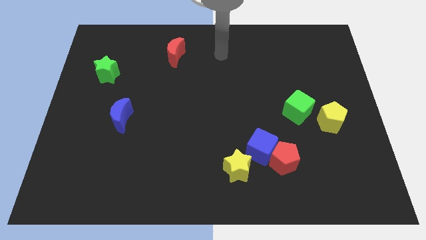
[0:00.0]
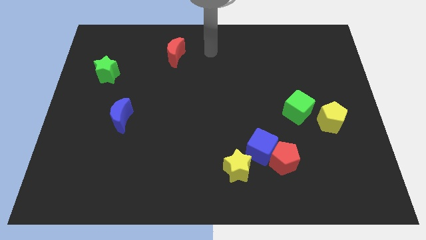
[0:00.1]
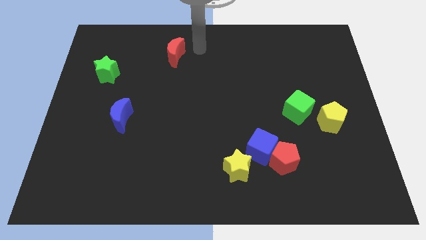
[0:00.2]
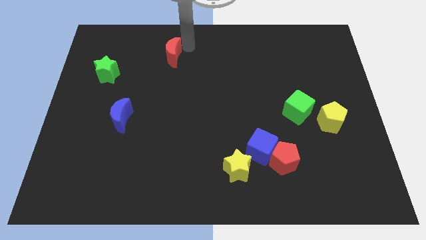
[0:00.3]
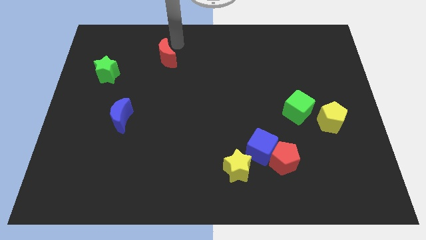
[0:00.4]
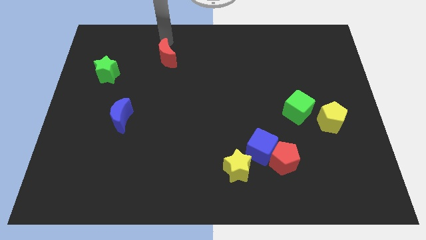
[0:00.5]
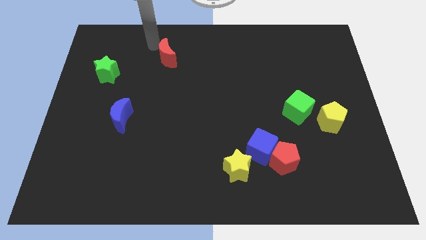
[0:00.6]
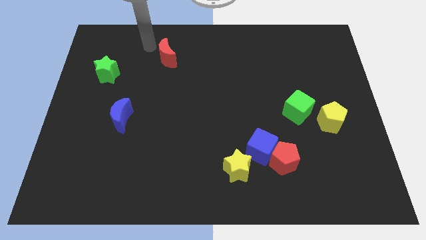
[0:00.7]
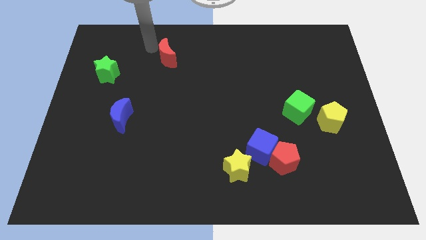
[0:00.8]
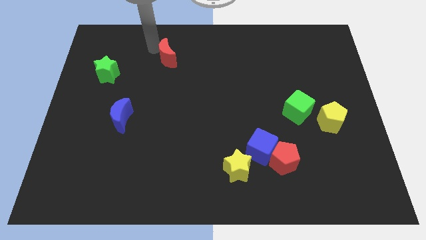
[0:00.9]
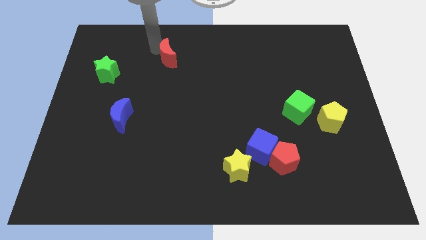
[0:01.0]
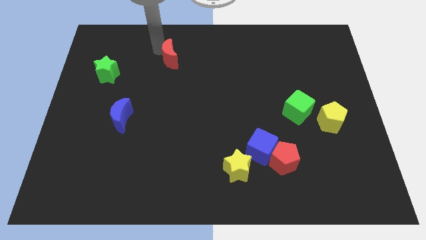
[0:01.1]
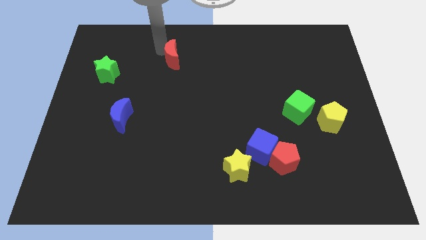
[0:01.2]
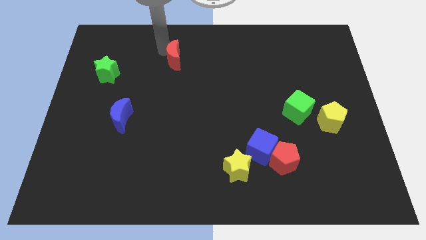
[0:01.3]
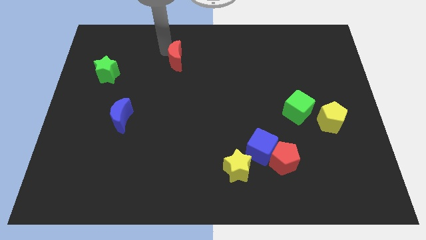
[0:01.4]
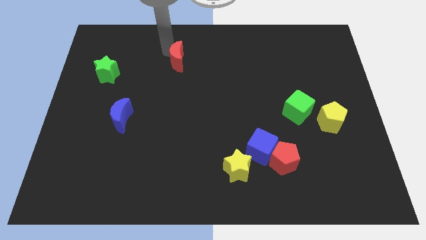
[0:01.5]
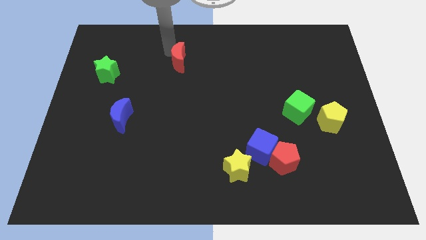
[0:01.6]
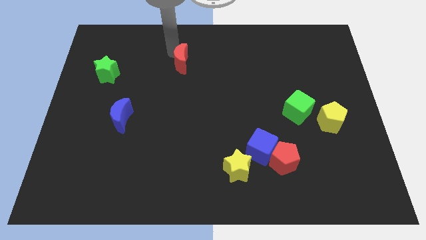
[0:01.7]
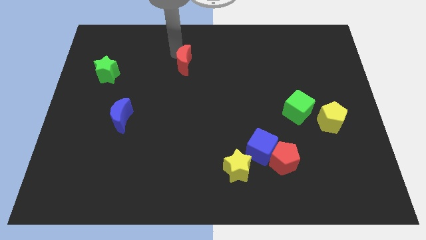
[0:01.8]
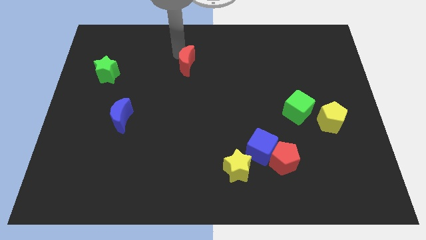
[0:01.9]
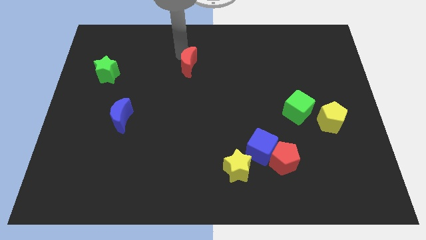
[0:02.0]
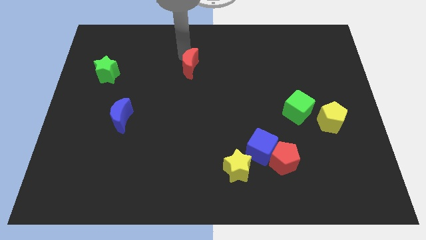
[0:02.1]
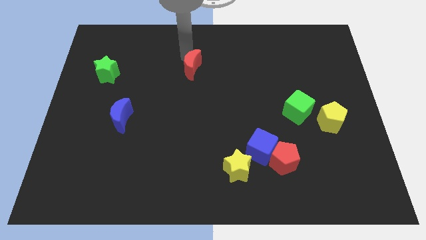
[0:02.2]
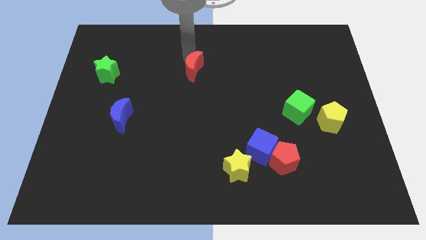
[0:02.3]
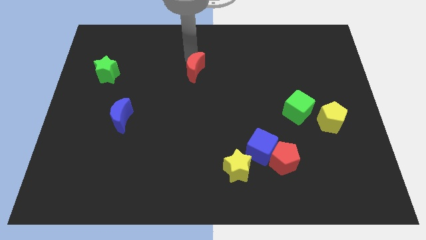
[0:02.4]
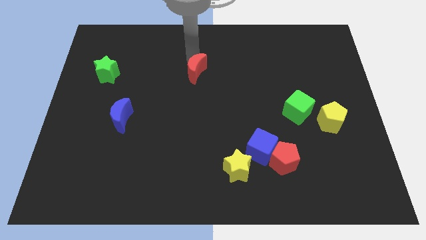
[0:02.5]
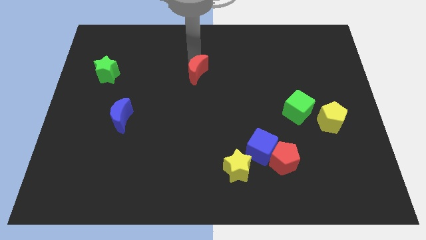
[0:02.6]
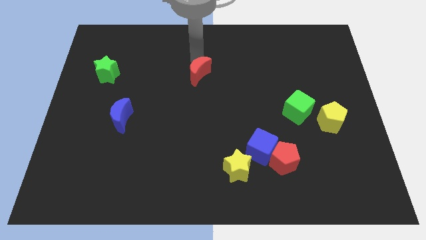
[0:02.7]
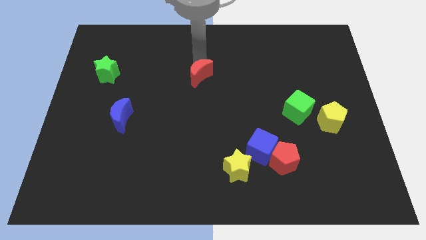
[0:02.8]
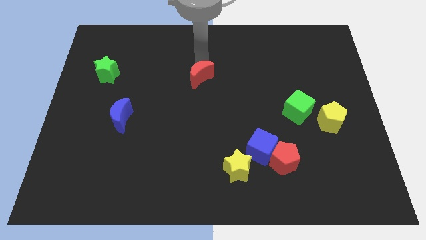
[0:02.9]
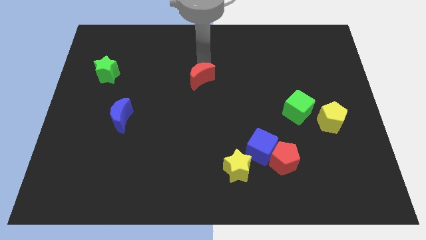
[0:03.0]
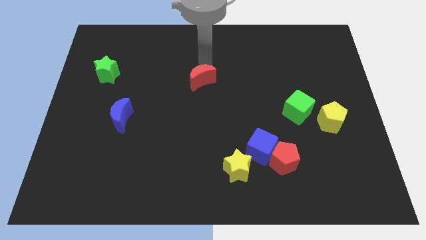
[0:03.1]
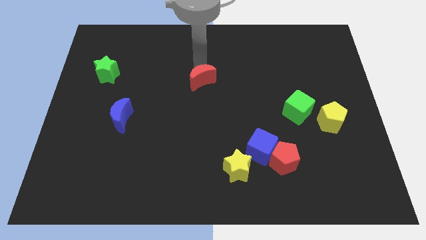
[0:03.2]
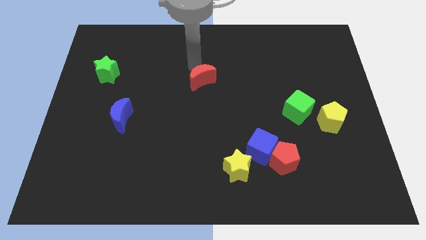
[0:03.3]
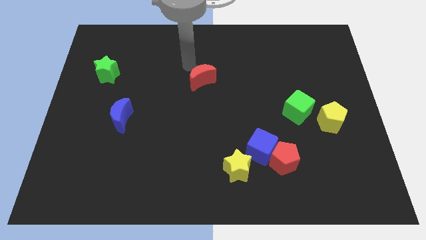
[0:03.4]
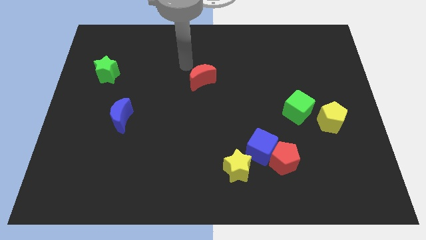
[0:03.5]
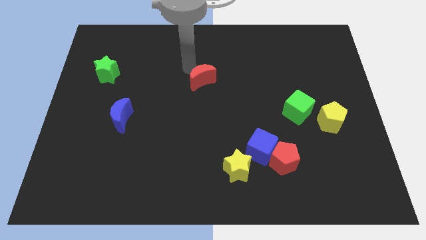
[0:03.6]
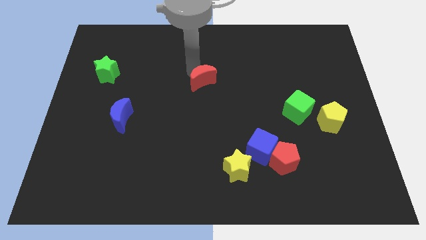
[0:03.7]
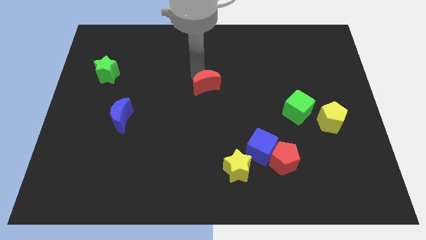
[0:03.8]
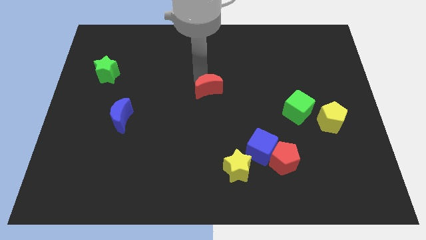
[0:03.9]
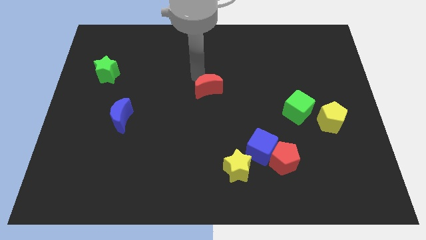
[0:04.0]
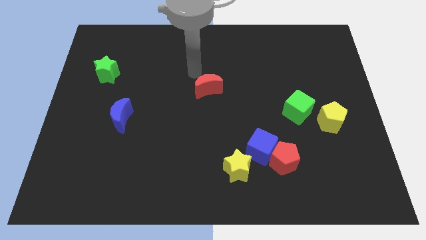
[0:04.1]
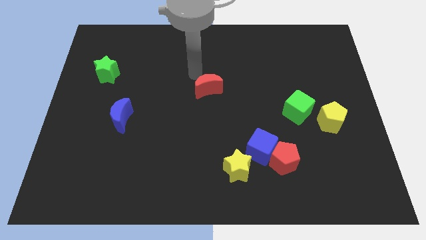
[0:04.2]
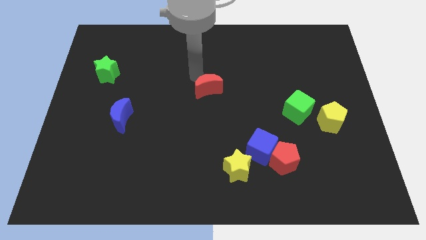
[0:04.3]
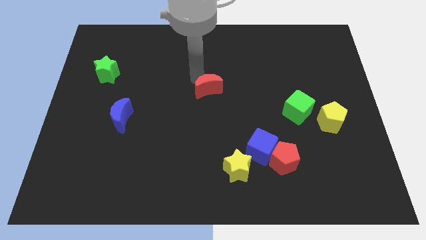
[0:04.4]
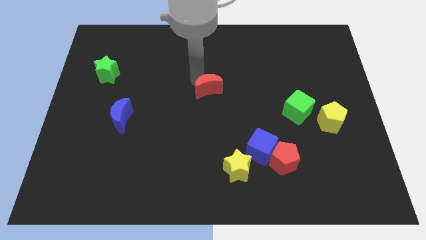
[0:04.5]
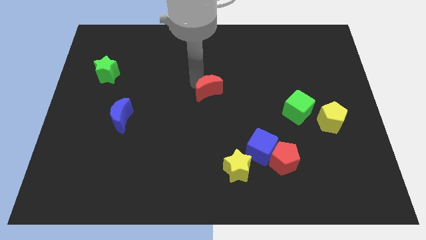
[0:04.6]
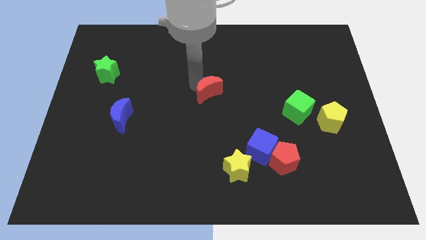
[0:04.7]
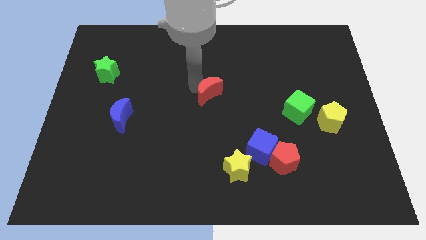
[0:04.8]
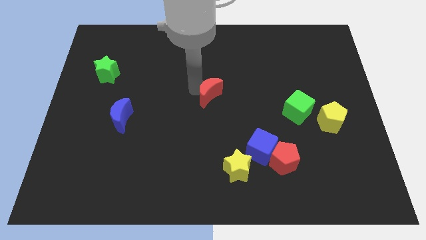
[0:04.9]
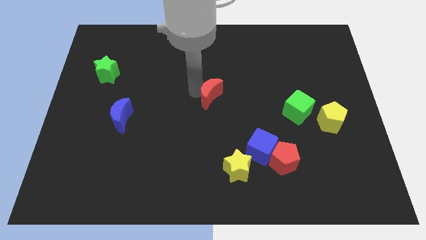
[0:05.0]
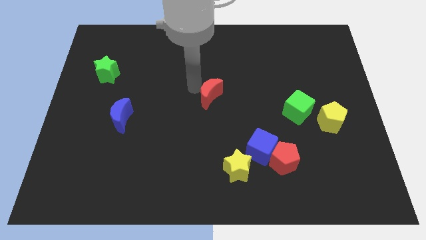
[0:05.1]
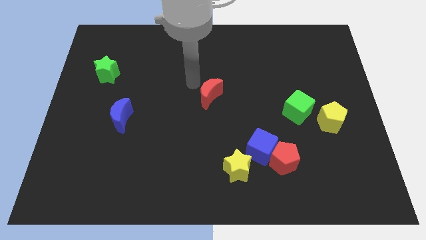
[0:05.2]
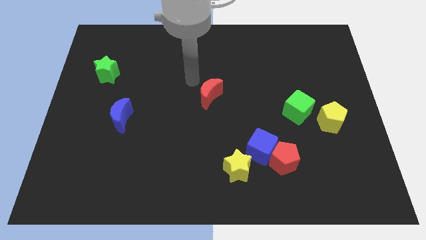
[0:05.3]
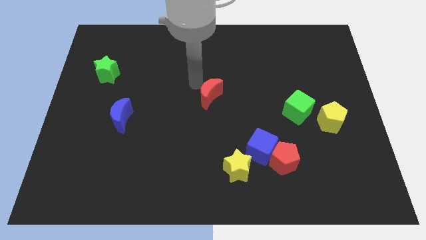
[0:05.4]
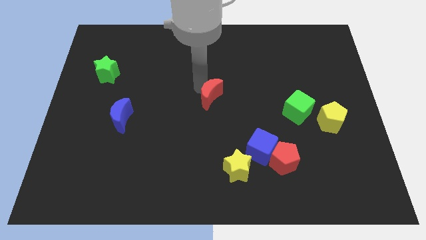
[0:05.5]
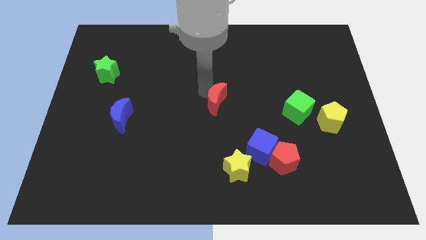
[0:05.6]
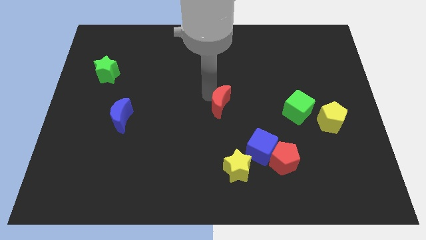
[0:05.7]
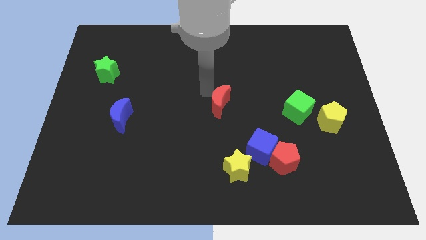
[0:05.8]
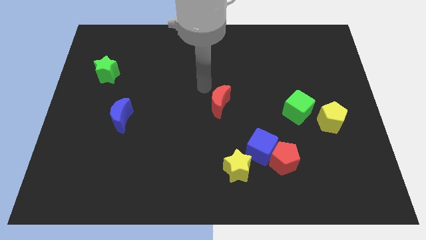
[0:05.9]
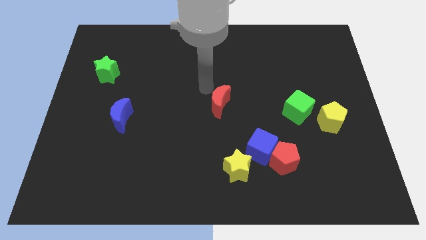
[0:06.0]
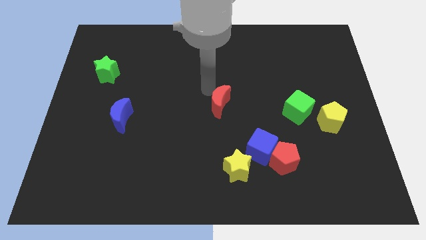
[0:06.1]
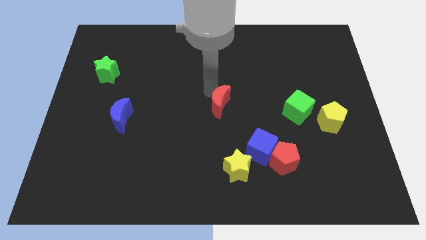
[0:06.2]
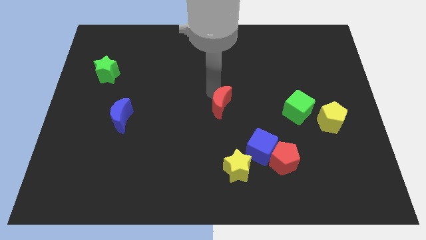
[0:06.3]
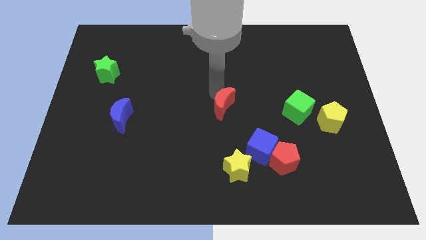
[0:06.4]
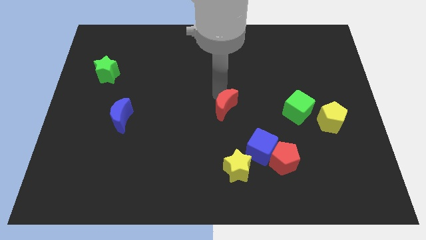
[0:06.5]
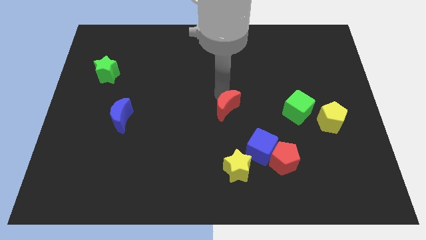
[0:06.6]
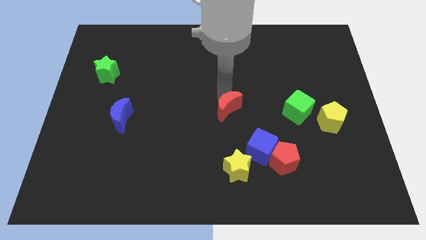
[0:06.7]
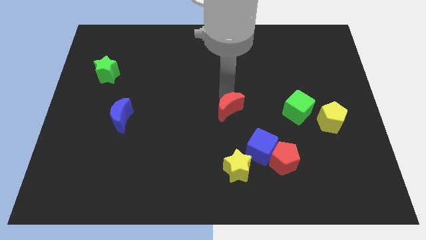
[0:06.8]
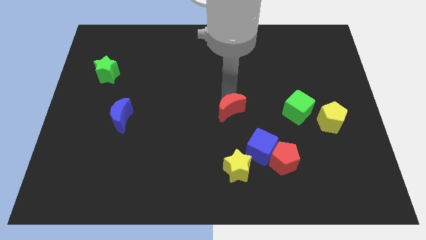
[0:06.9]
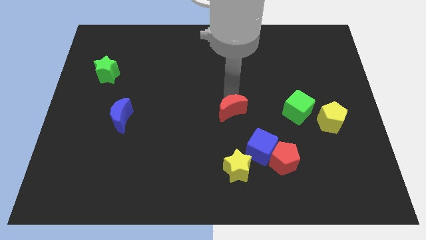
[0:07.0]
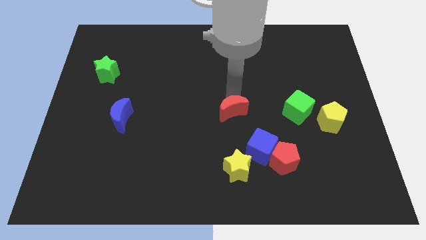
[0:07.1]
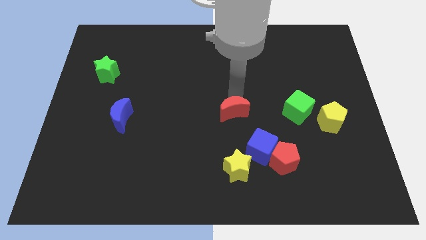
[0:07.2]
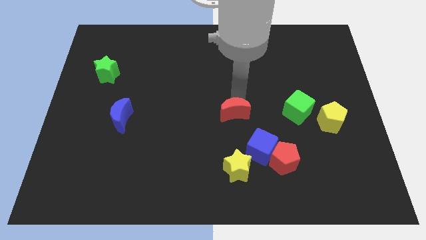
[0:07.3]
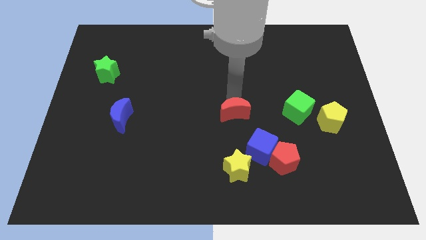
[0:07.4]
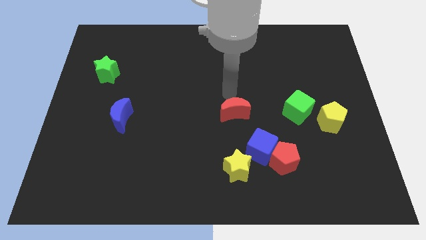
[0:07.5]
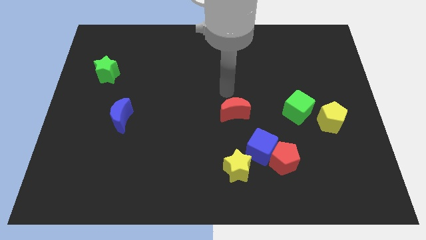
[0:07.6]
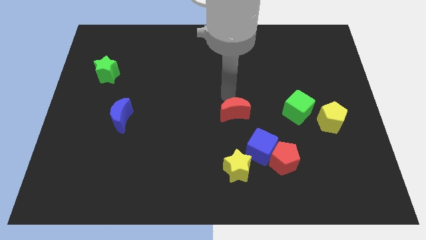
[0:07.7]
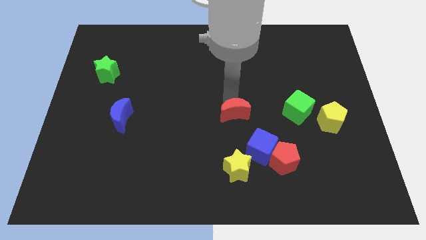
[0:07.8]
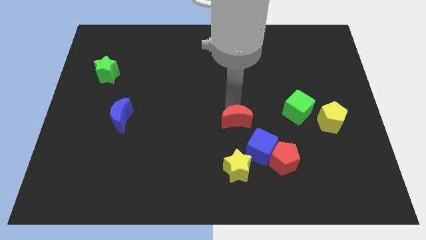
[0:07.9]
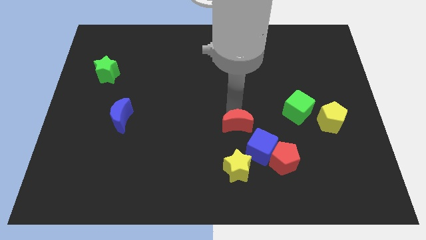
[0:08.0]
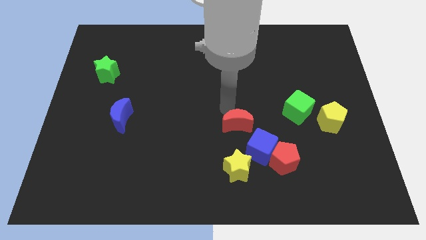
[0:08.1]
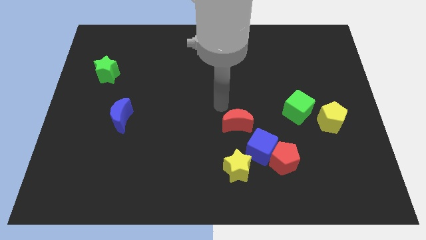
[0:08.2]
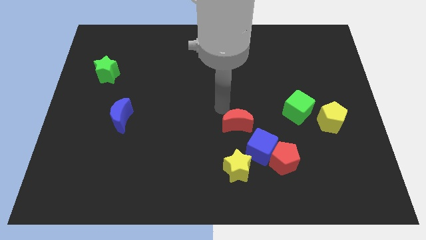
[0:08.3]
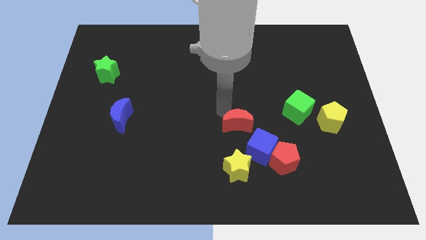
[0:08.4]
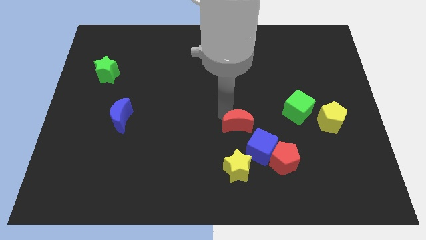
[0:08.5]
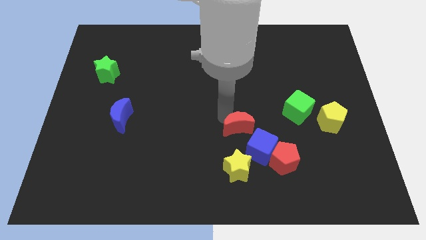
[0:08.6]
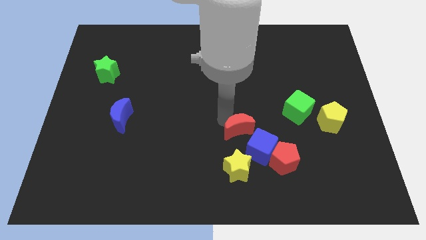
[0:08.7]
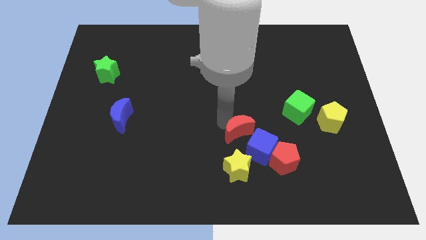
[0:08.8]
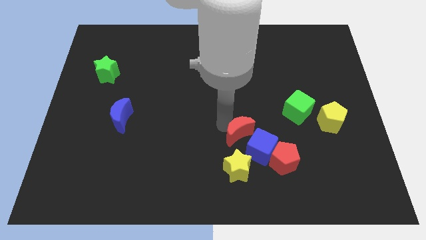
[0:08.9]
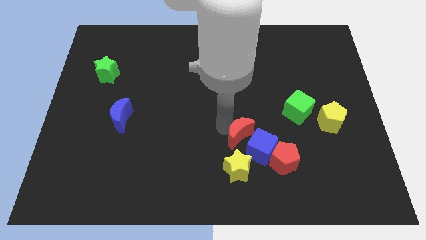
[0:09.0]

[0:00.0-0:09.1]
slide the red moon to the blue cube
